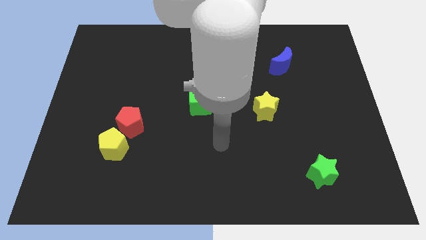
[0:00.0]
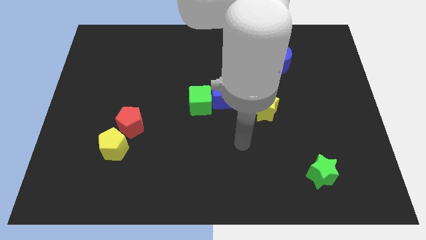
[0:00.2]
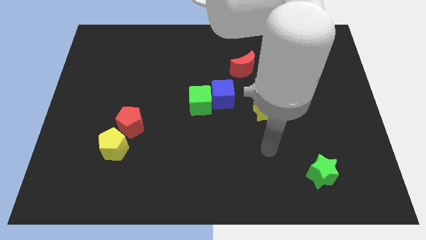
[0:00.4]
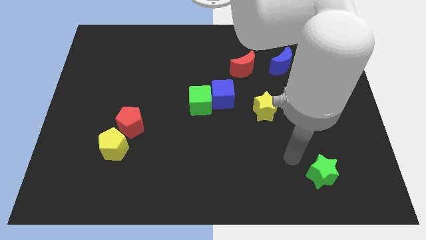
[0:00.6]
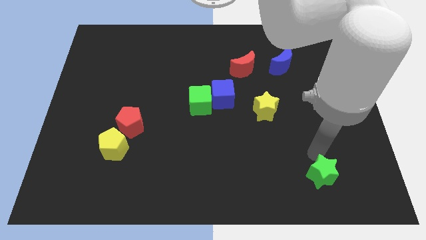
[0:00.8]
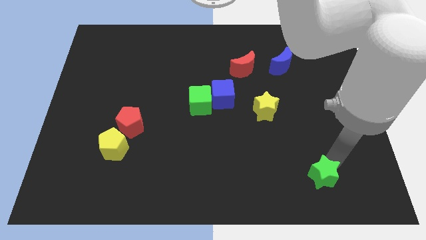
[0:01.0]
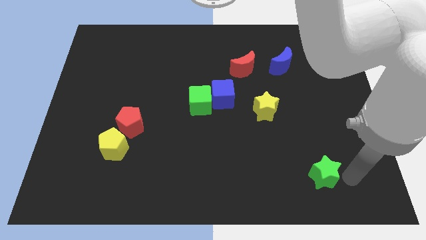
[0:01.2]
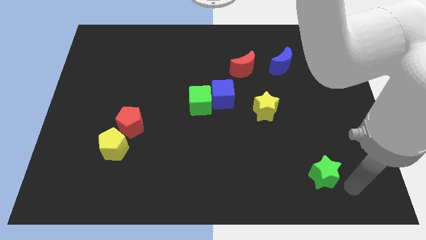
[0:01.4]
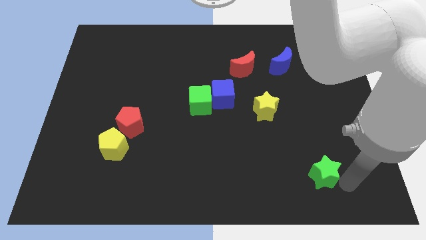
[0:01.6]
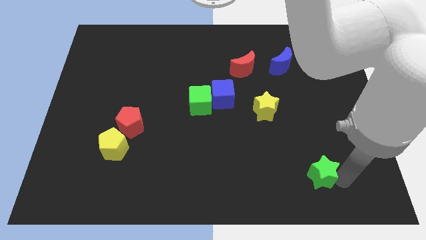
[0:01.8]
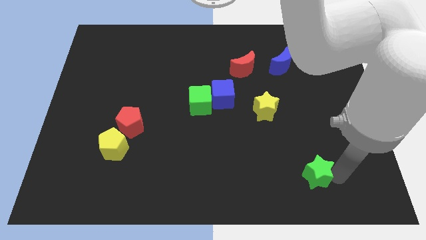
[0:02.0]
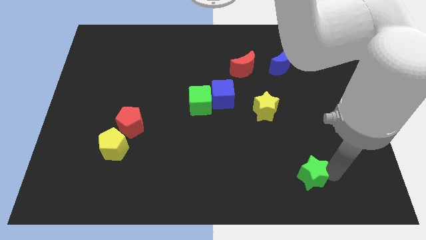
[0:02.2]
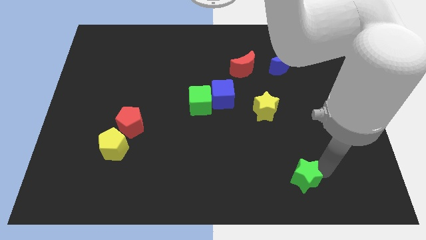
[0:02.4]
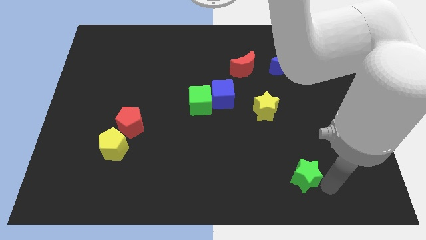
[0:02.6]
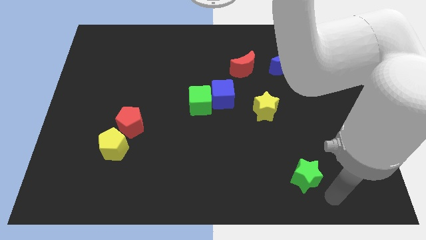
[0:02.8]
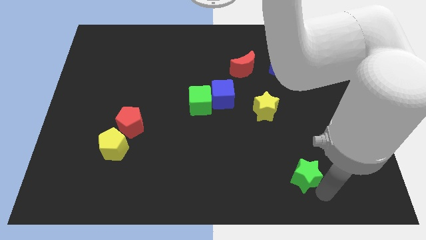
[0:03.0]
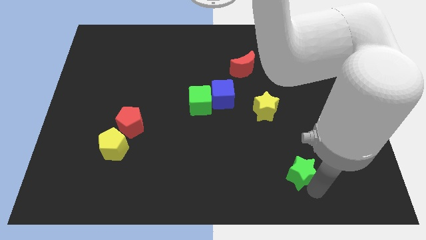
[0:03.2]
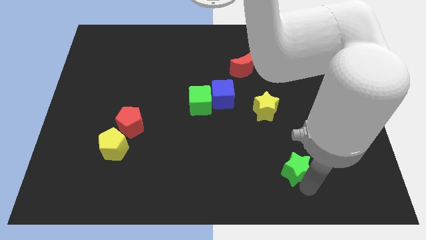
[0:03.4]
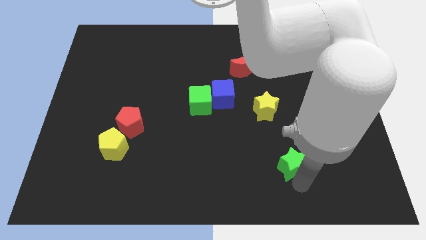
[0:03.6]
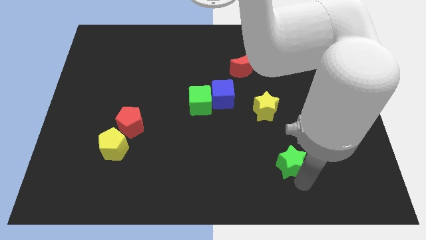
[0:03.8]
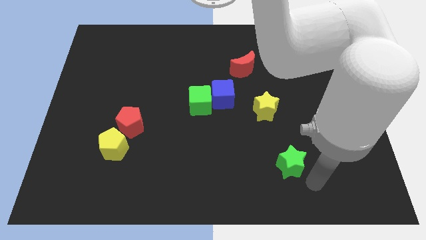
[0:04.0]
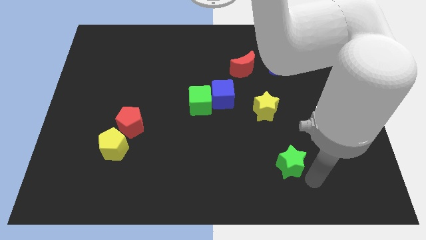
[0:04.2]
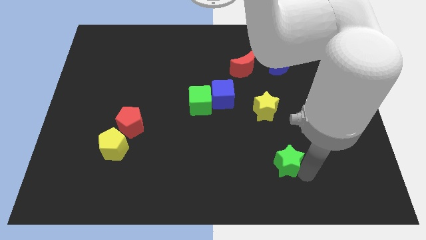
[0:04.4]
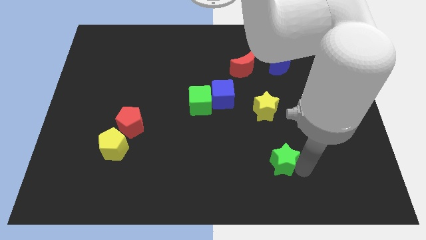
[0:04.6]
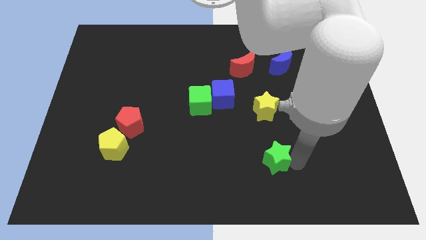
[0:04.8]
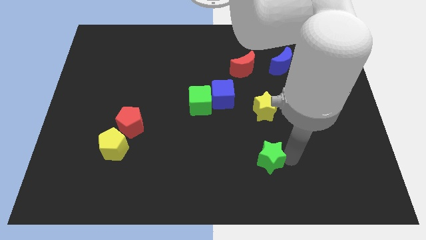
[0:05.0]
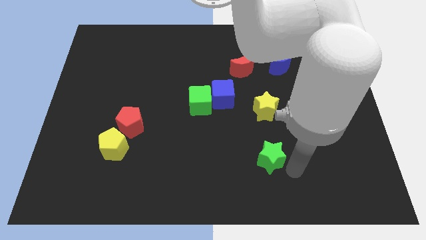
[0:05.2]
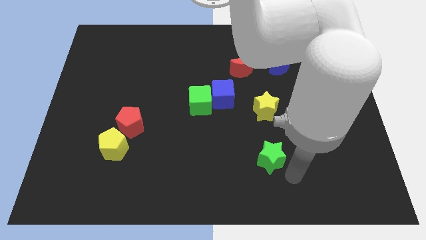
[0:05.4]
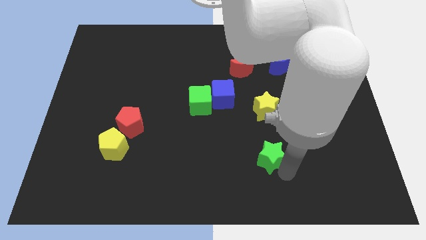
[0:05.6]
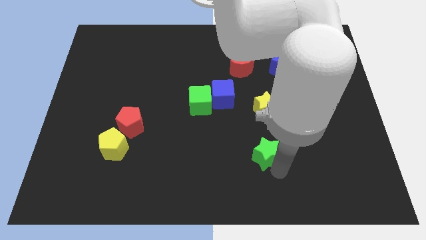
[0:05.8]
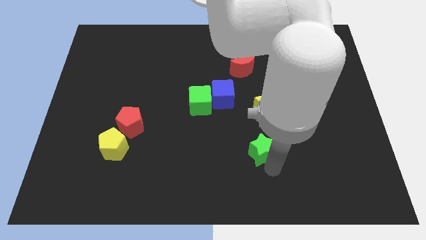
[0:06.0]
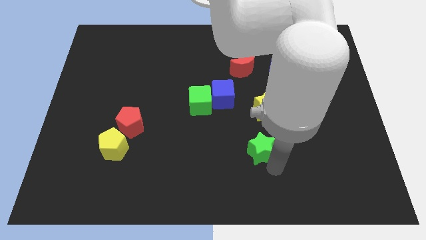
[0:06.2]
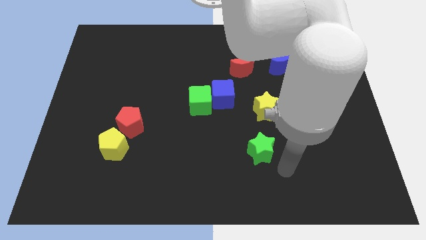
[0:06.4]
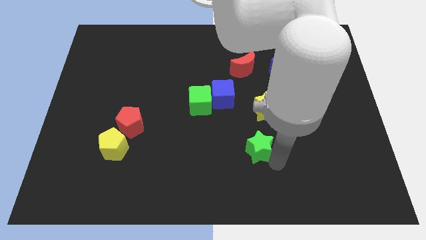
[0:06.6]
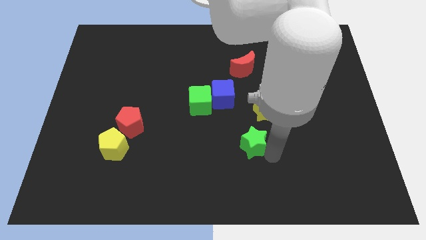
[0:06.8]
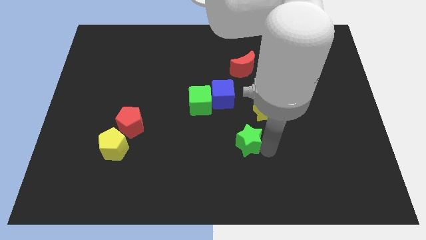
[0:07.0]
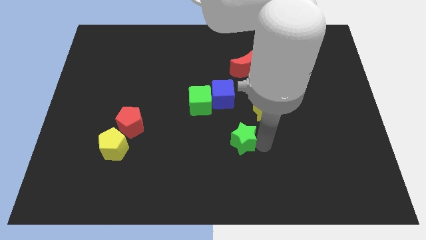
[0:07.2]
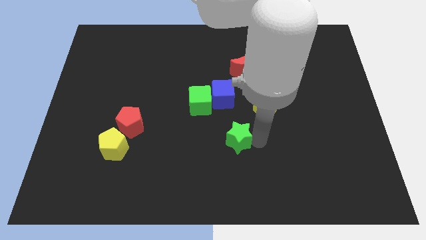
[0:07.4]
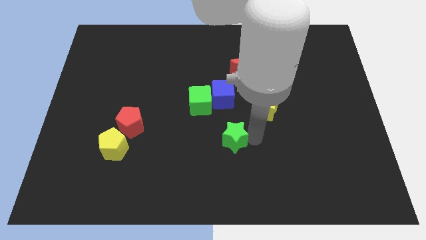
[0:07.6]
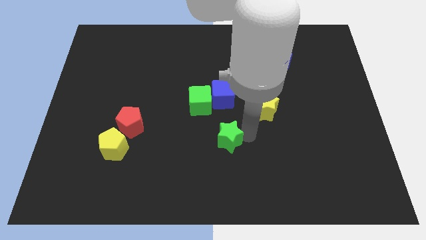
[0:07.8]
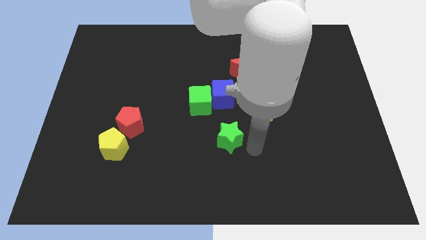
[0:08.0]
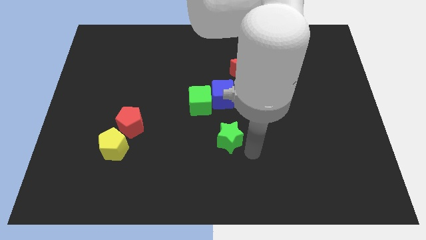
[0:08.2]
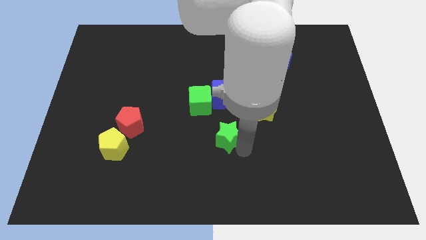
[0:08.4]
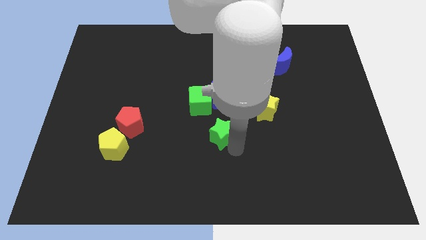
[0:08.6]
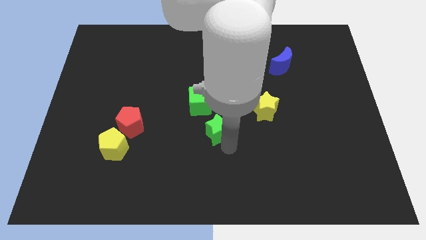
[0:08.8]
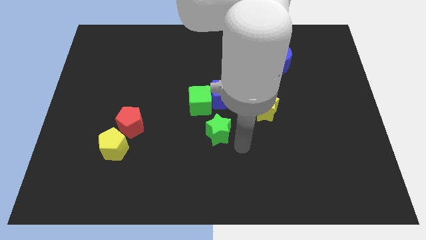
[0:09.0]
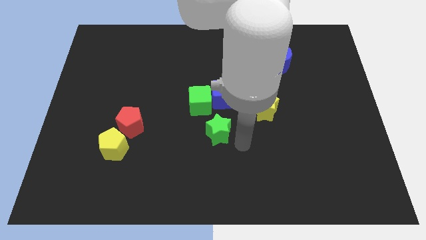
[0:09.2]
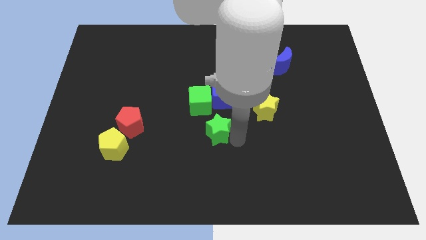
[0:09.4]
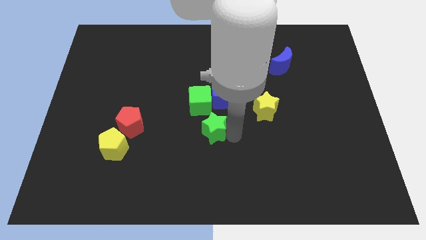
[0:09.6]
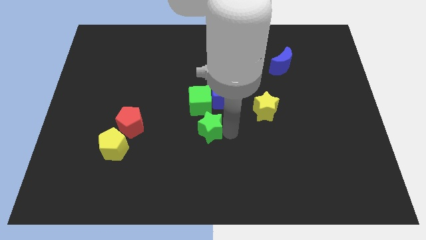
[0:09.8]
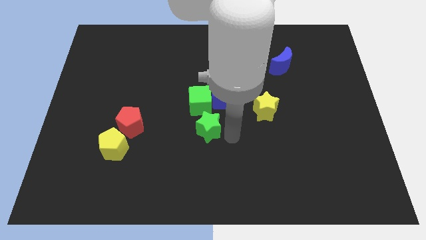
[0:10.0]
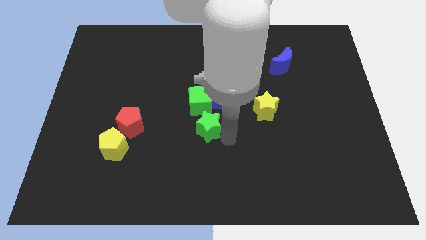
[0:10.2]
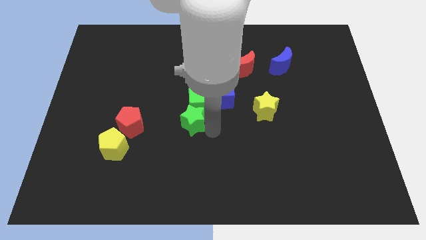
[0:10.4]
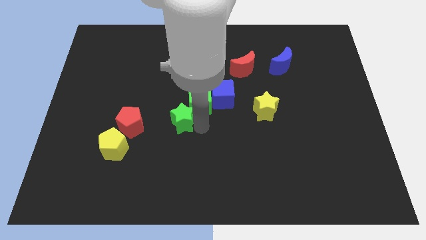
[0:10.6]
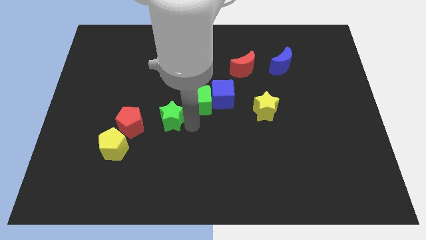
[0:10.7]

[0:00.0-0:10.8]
slide the green star to the left side of the green cube
